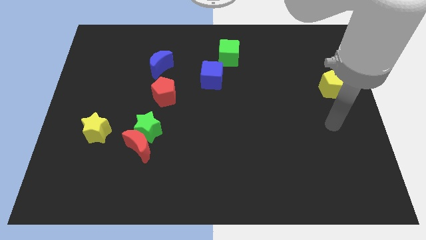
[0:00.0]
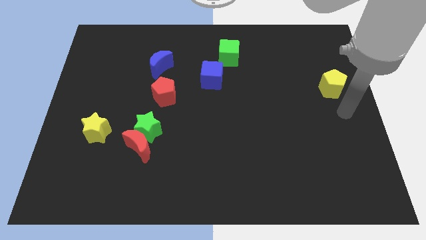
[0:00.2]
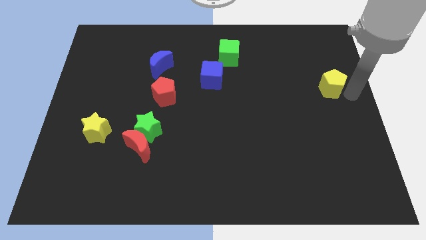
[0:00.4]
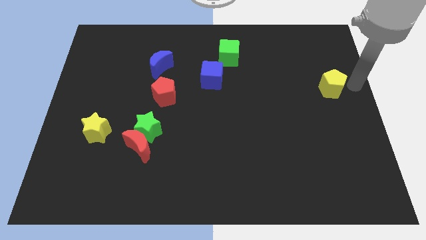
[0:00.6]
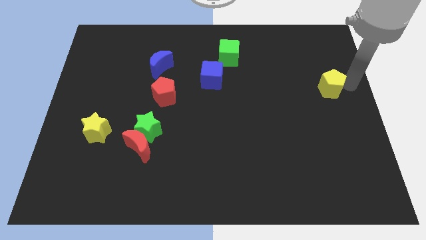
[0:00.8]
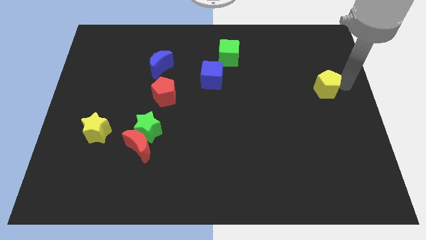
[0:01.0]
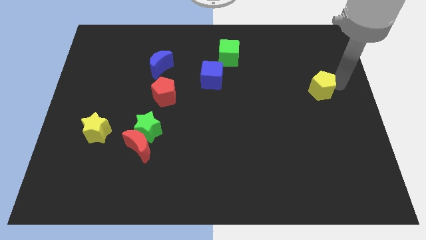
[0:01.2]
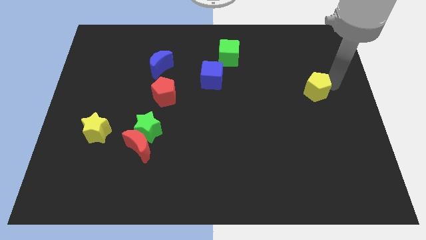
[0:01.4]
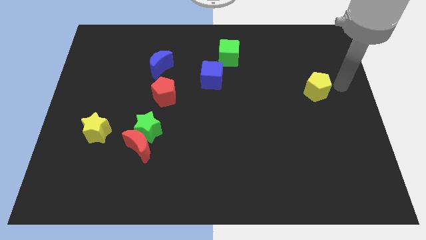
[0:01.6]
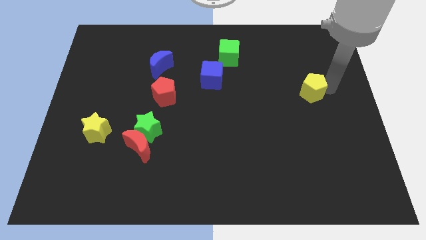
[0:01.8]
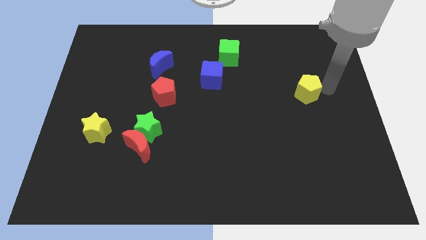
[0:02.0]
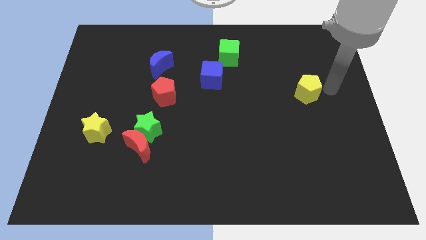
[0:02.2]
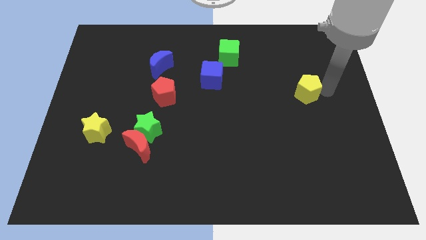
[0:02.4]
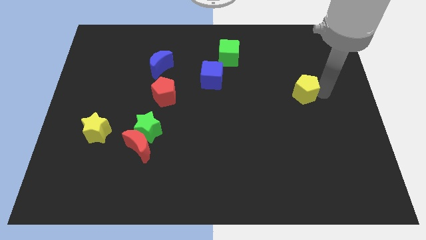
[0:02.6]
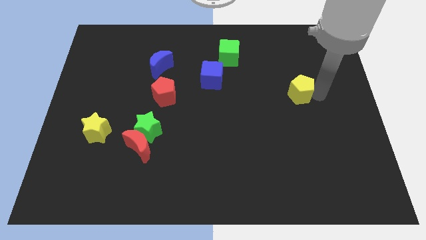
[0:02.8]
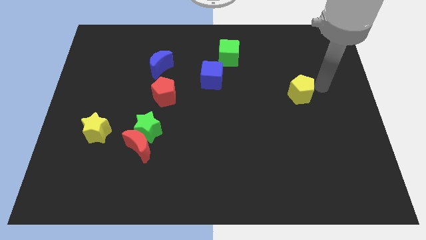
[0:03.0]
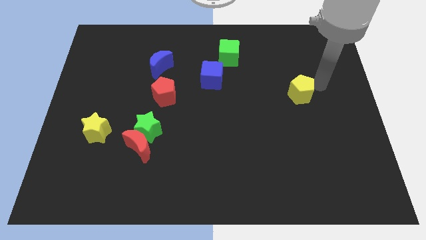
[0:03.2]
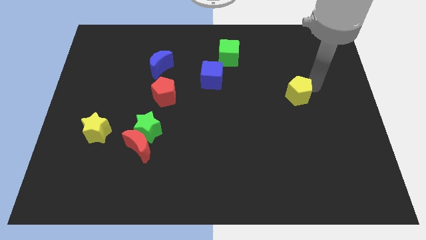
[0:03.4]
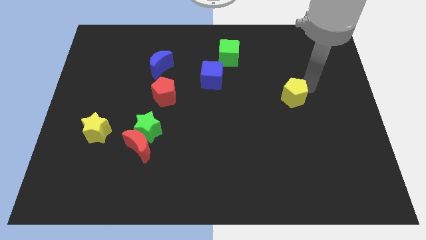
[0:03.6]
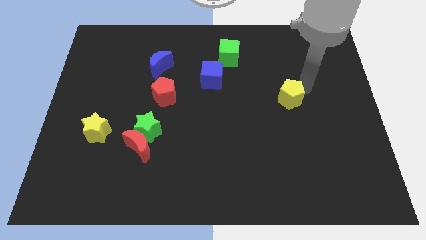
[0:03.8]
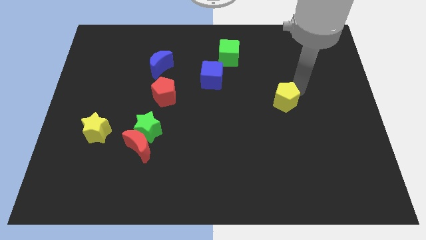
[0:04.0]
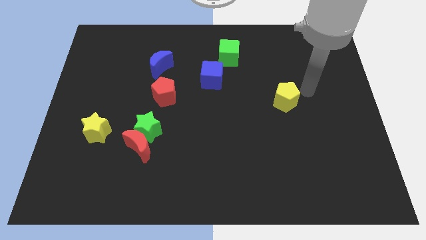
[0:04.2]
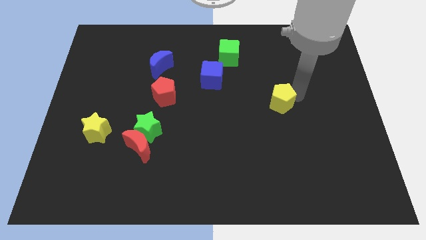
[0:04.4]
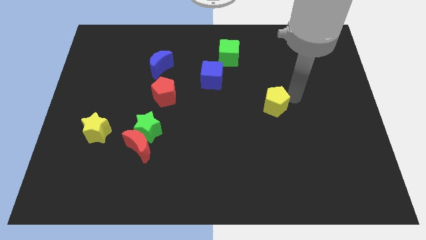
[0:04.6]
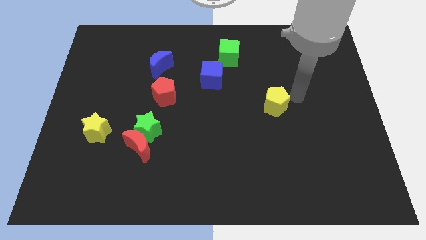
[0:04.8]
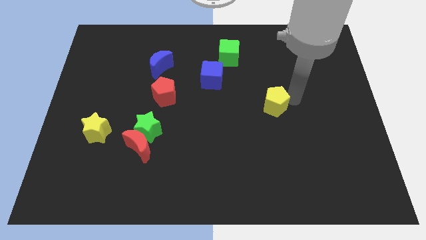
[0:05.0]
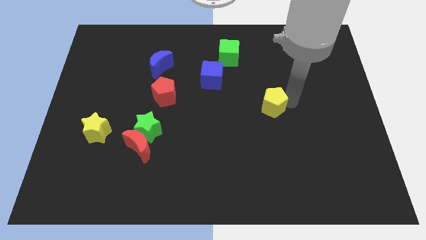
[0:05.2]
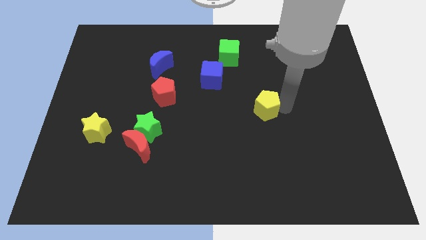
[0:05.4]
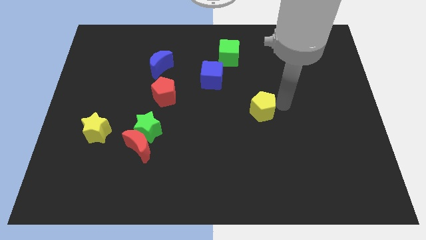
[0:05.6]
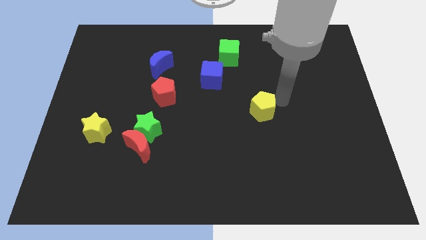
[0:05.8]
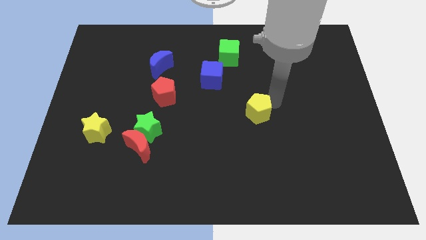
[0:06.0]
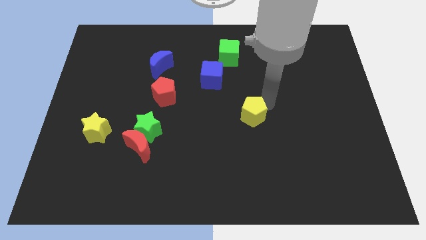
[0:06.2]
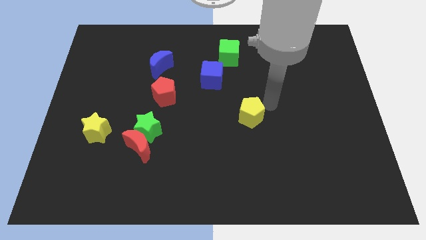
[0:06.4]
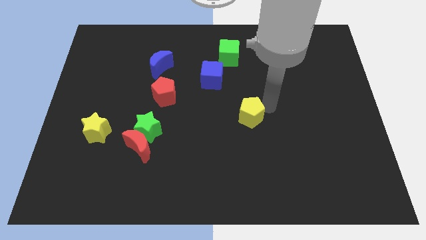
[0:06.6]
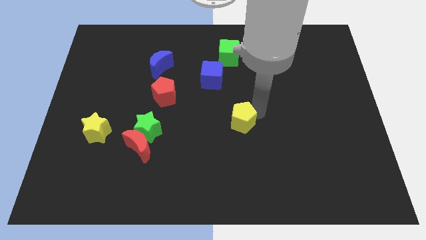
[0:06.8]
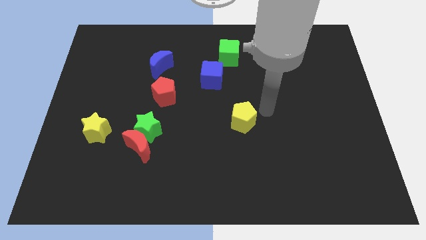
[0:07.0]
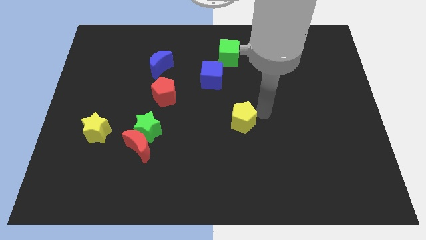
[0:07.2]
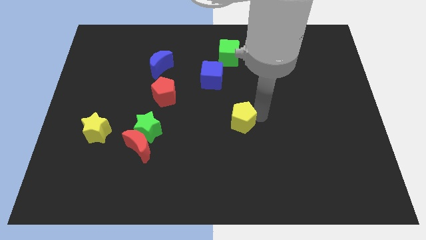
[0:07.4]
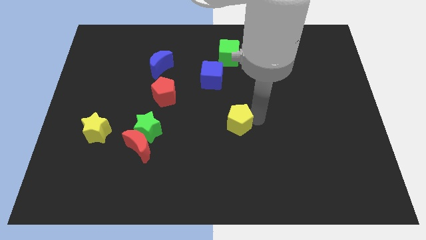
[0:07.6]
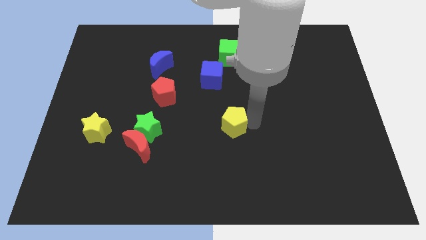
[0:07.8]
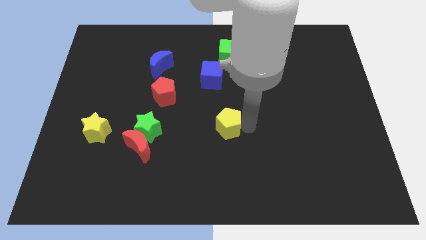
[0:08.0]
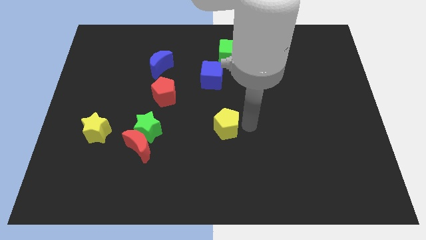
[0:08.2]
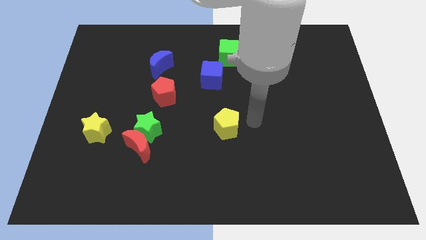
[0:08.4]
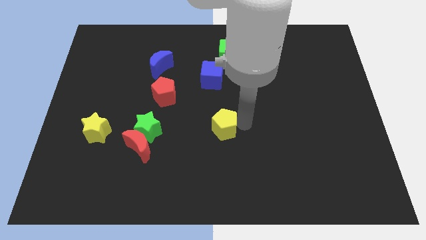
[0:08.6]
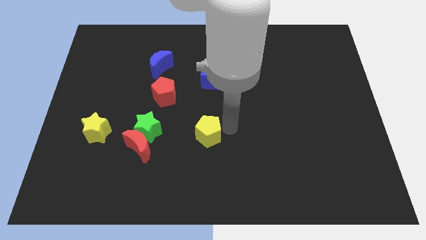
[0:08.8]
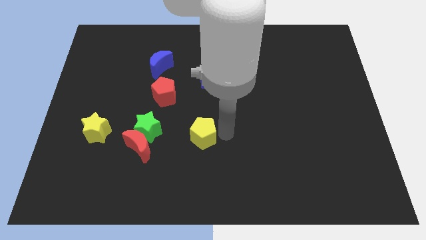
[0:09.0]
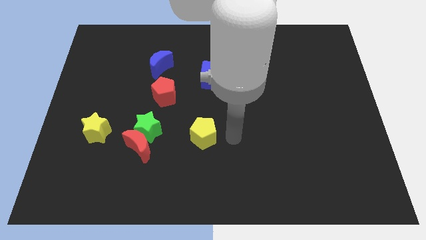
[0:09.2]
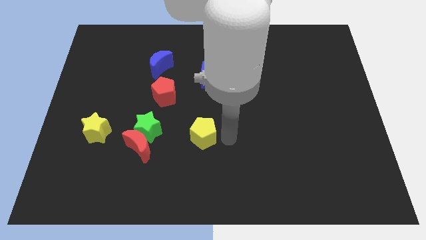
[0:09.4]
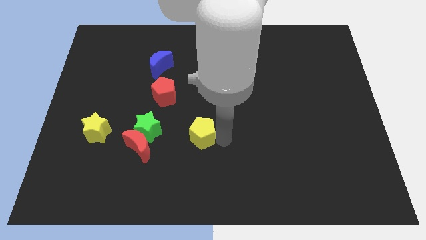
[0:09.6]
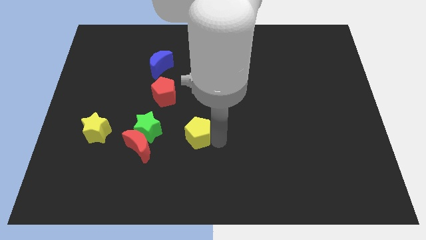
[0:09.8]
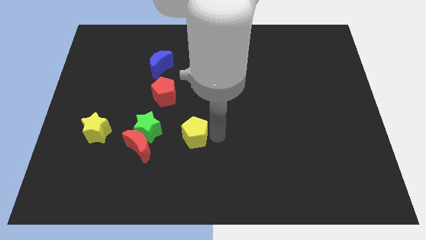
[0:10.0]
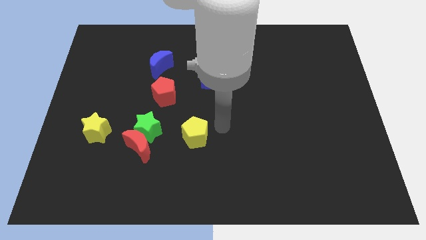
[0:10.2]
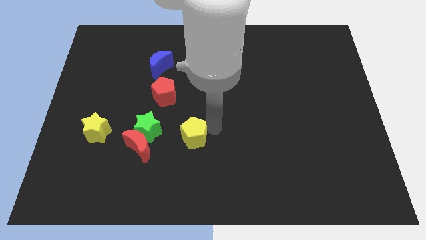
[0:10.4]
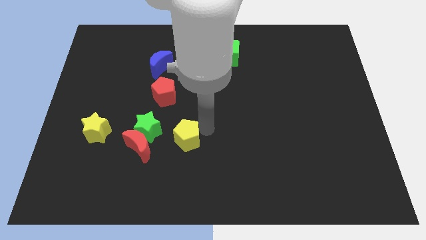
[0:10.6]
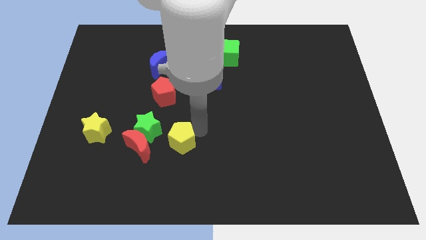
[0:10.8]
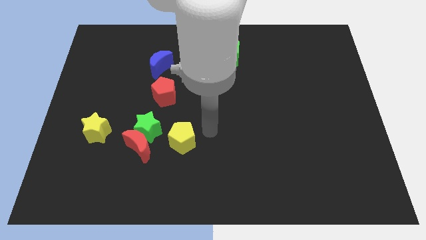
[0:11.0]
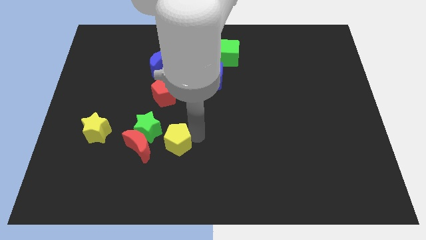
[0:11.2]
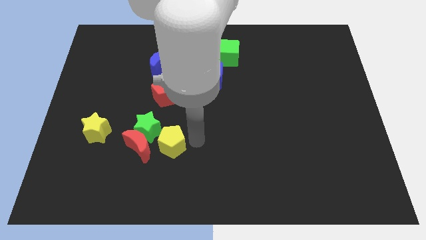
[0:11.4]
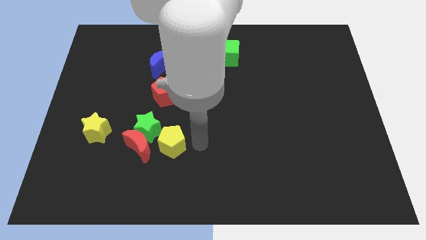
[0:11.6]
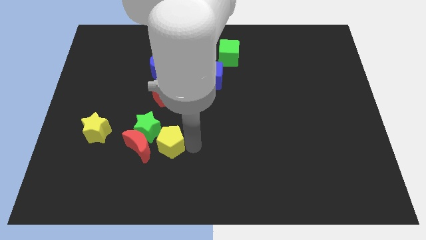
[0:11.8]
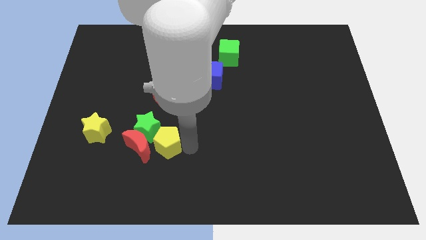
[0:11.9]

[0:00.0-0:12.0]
push the yellow pentagon towards the red moon

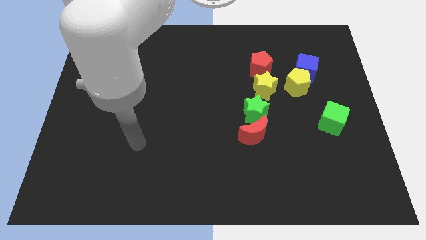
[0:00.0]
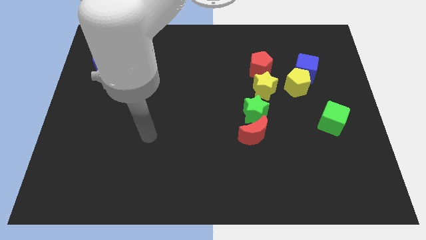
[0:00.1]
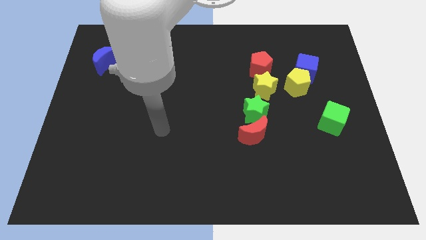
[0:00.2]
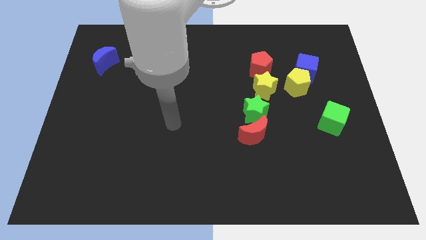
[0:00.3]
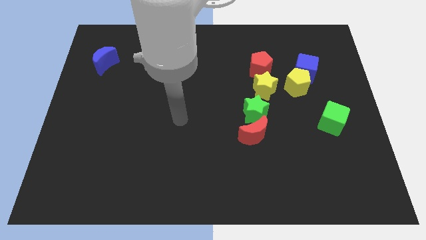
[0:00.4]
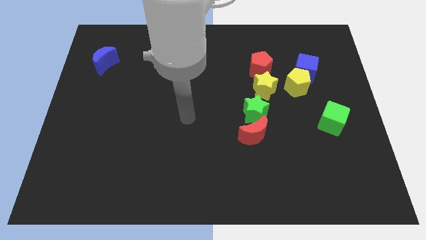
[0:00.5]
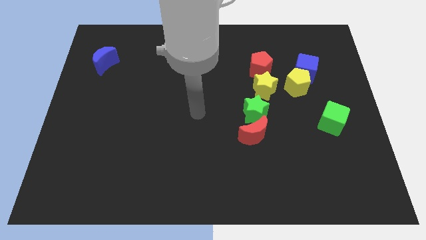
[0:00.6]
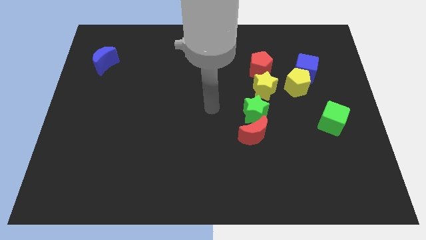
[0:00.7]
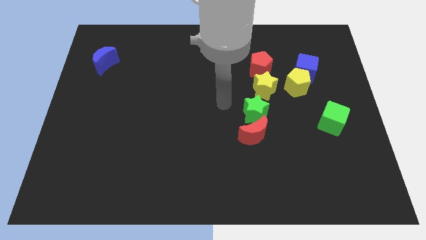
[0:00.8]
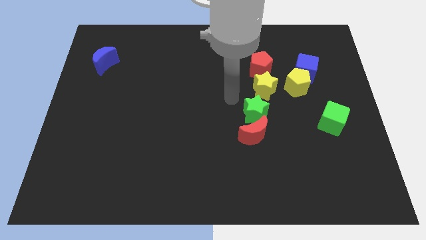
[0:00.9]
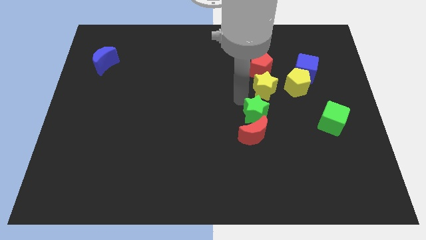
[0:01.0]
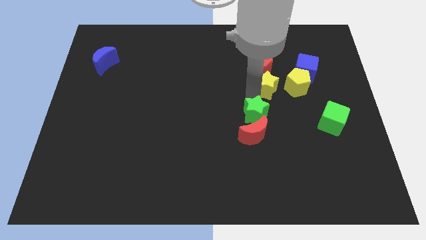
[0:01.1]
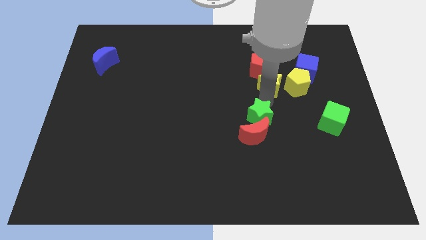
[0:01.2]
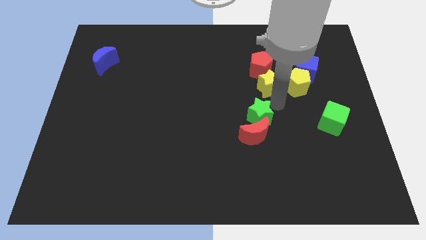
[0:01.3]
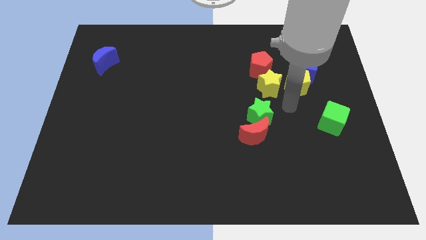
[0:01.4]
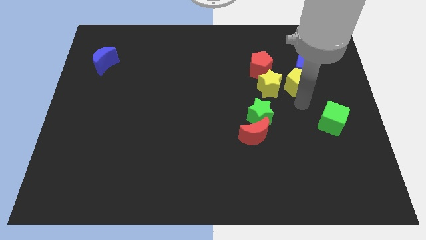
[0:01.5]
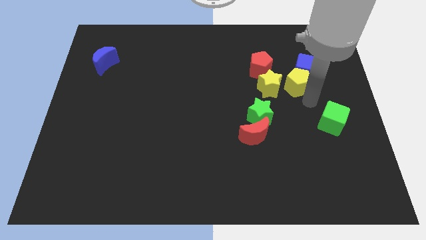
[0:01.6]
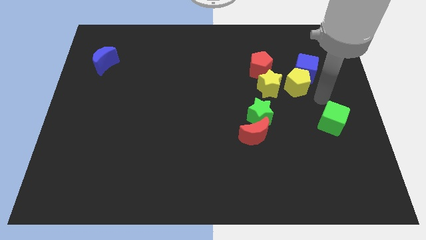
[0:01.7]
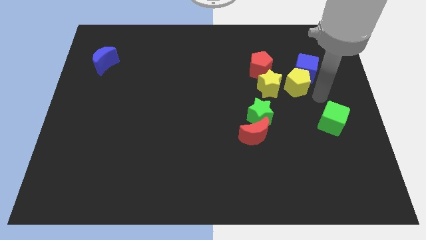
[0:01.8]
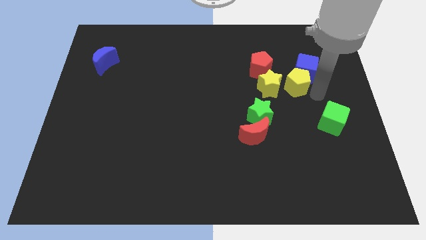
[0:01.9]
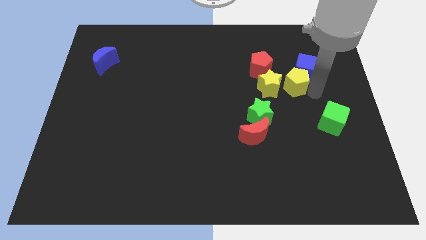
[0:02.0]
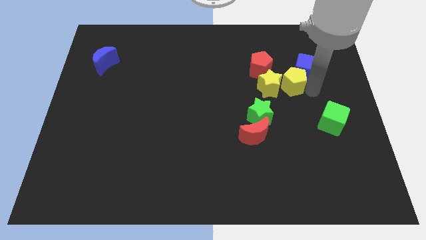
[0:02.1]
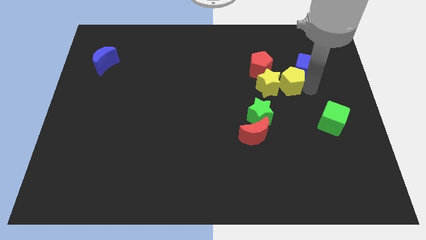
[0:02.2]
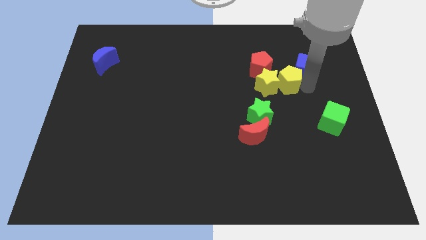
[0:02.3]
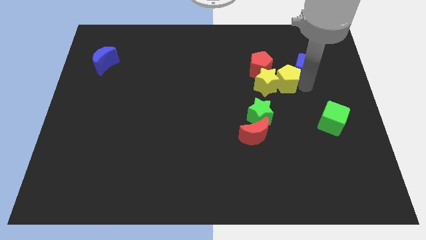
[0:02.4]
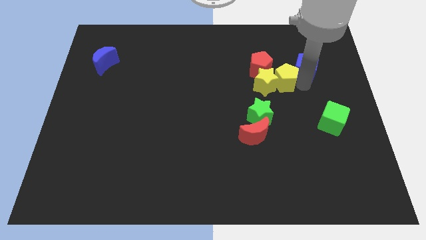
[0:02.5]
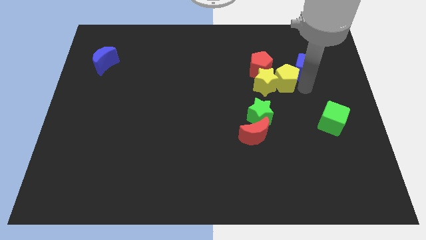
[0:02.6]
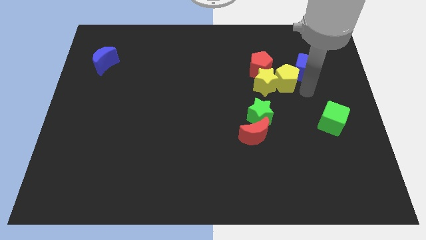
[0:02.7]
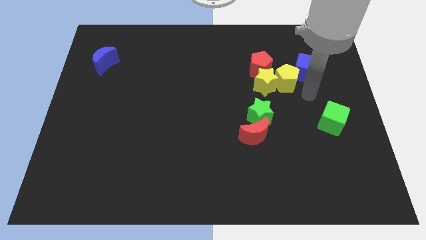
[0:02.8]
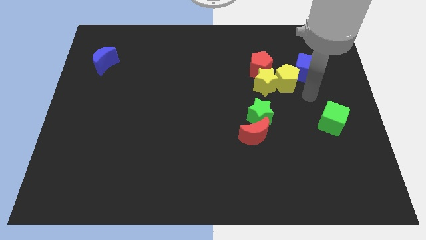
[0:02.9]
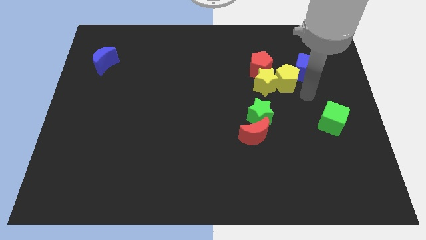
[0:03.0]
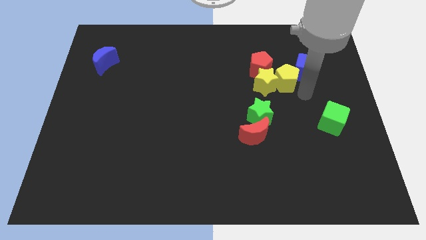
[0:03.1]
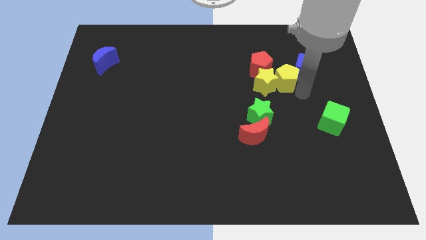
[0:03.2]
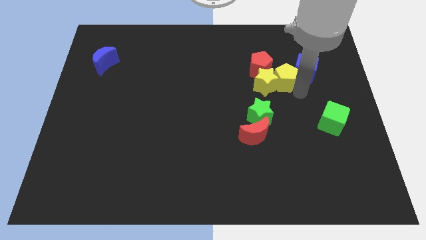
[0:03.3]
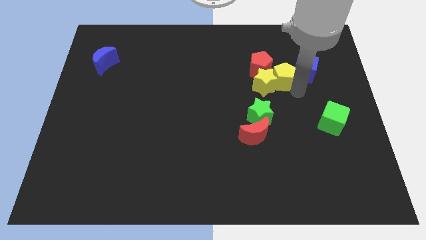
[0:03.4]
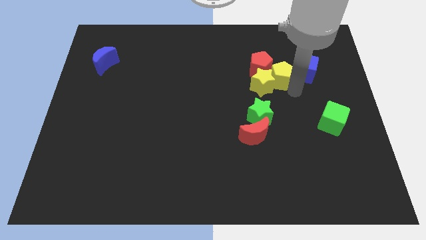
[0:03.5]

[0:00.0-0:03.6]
push the yellow pentagon next to the red pentagon
